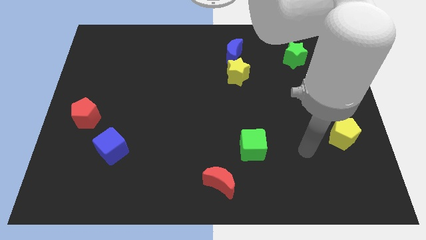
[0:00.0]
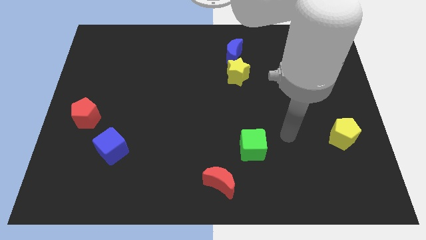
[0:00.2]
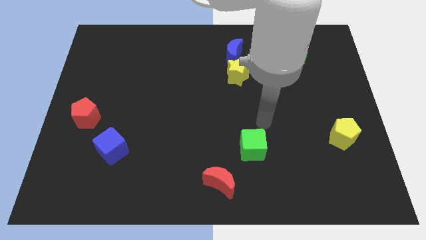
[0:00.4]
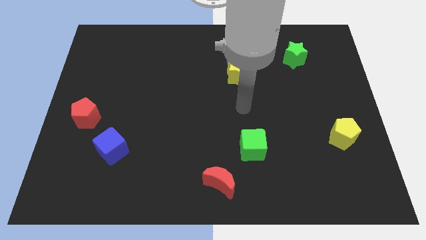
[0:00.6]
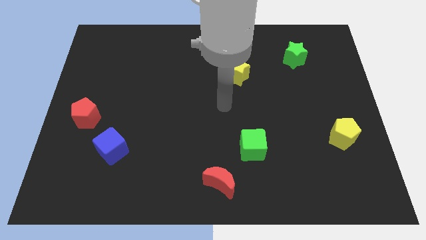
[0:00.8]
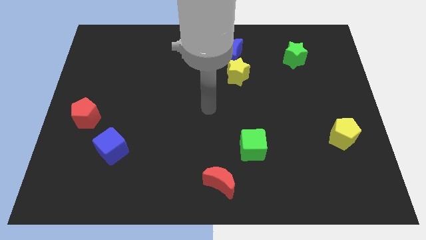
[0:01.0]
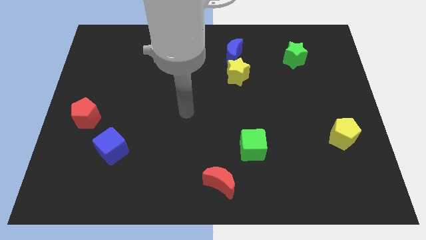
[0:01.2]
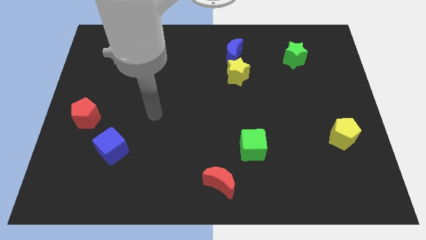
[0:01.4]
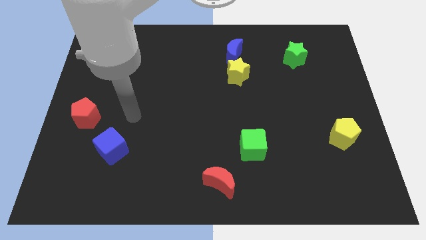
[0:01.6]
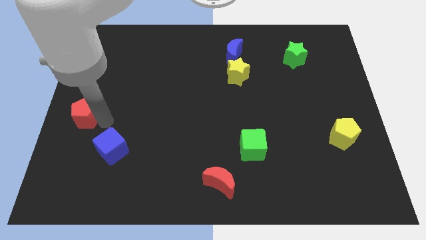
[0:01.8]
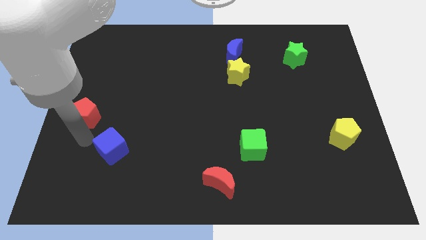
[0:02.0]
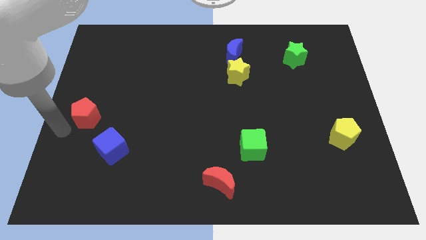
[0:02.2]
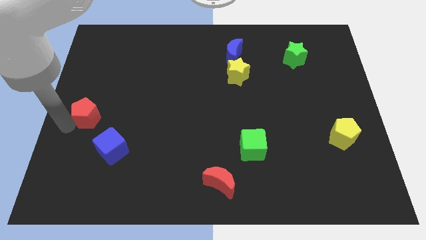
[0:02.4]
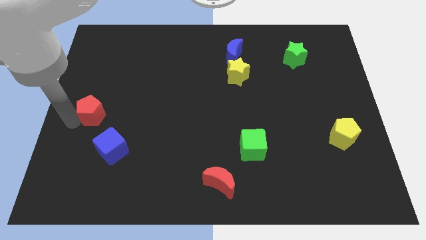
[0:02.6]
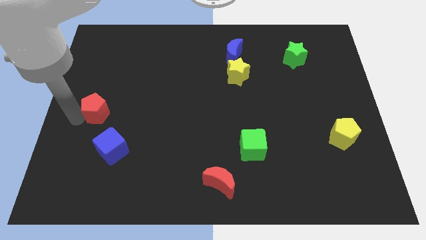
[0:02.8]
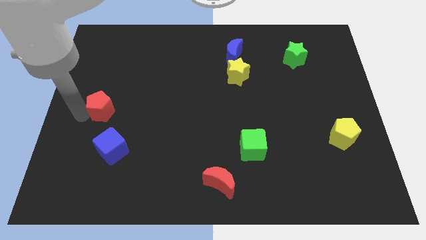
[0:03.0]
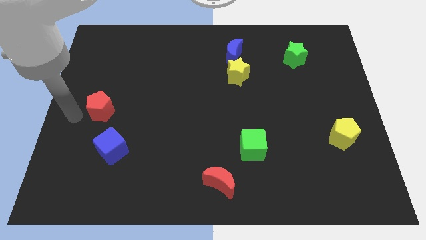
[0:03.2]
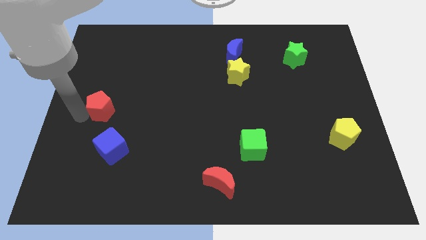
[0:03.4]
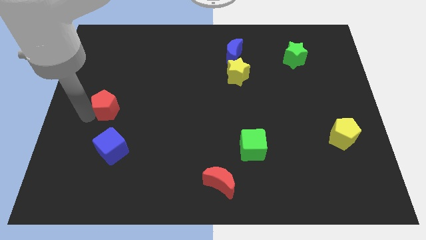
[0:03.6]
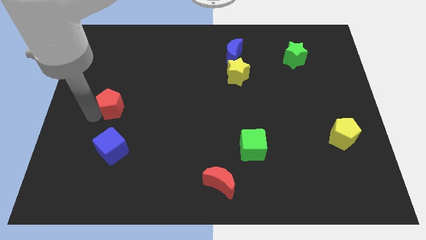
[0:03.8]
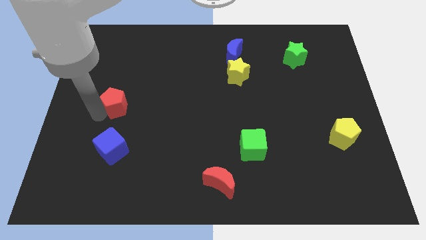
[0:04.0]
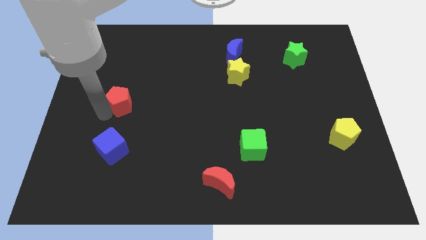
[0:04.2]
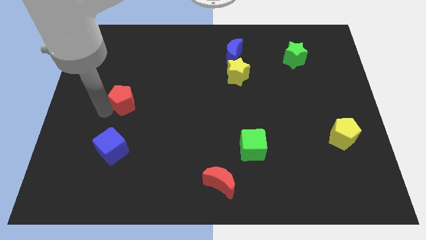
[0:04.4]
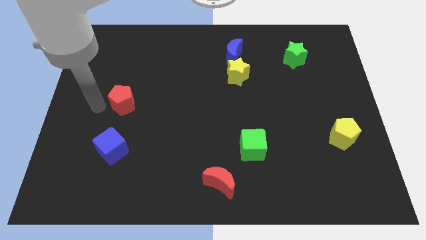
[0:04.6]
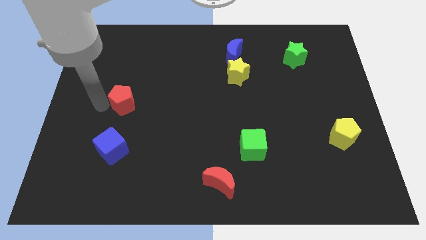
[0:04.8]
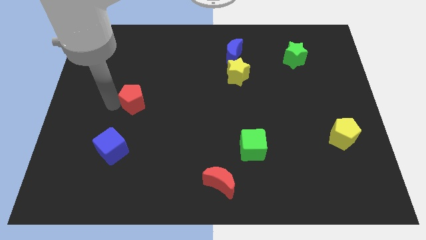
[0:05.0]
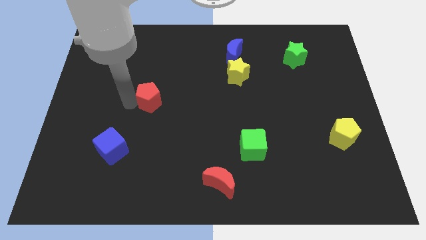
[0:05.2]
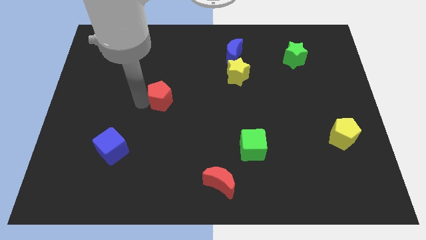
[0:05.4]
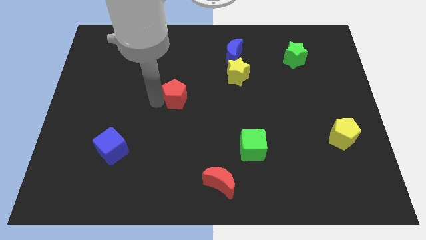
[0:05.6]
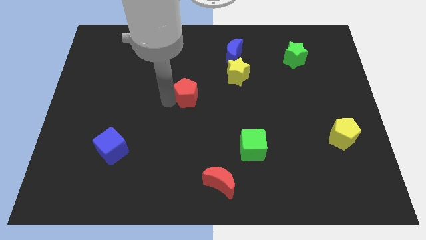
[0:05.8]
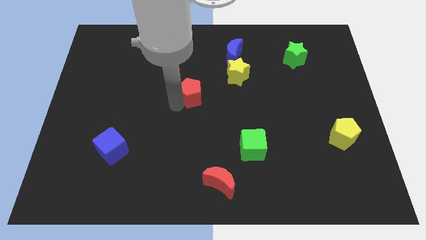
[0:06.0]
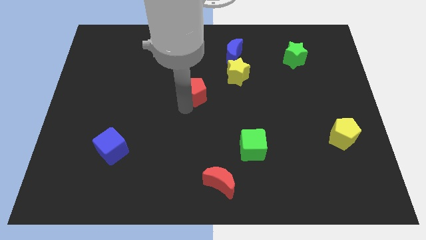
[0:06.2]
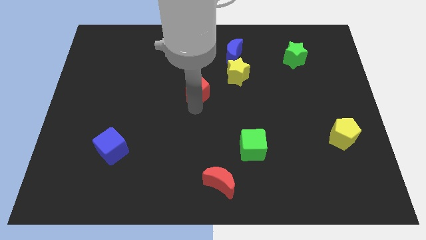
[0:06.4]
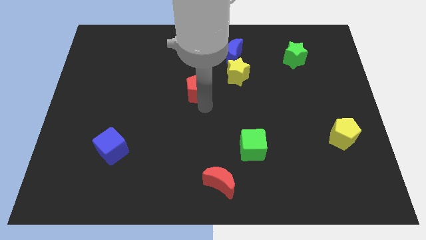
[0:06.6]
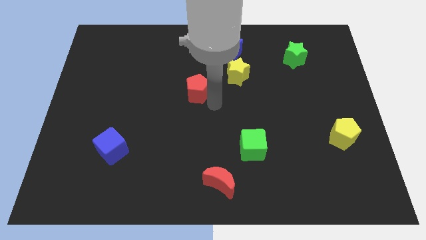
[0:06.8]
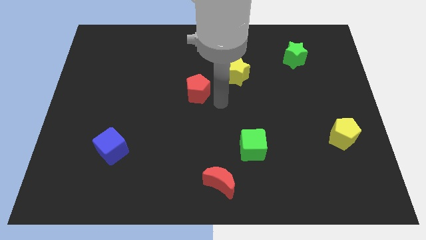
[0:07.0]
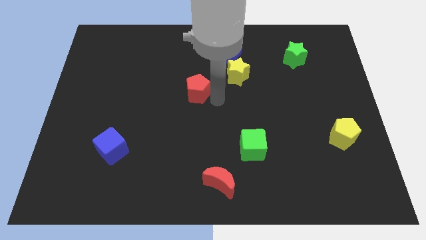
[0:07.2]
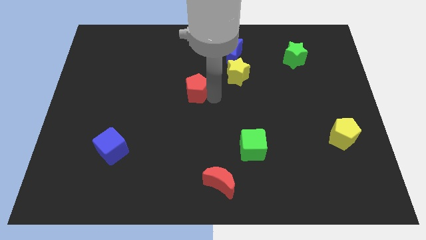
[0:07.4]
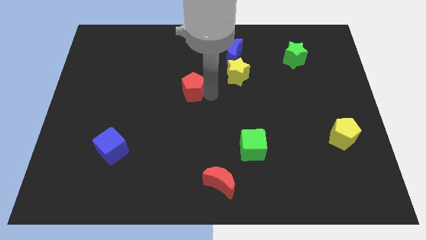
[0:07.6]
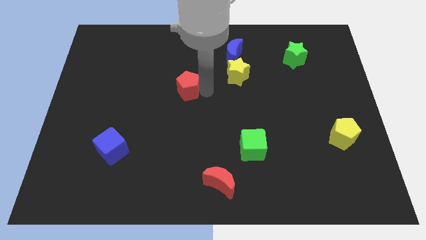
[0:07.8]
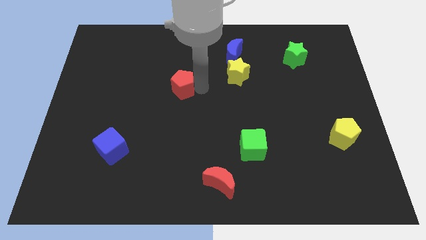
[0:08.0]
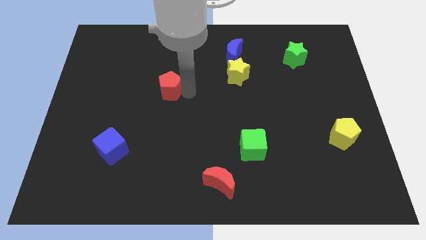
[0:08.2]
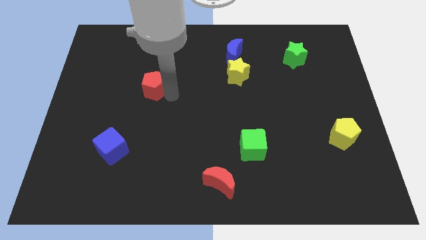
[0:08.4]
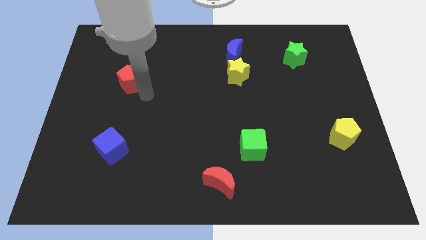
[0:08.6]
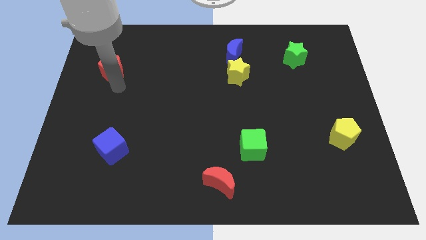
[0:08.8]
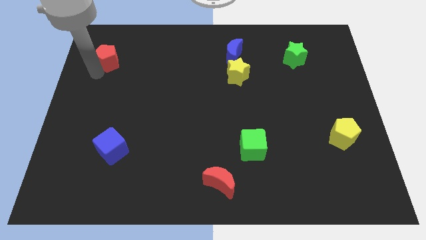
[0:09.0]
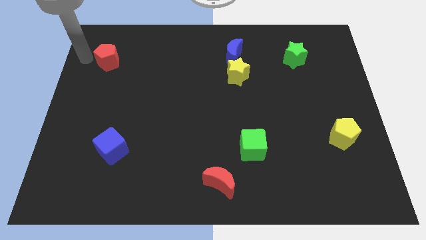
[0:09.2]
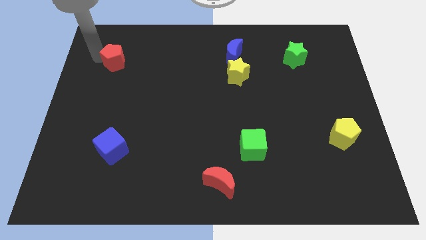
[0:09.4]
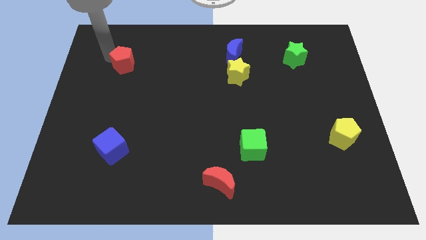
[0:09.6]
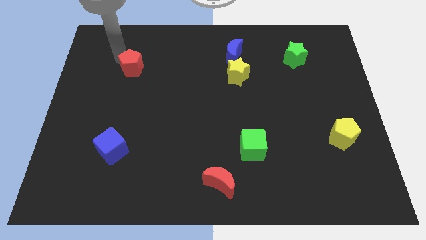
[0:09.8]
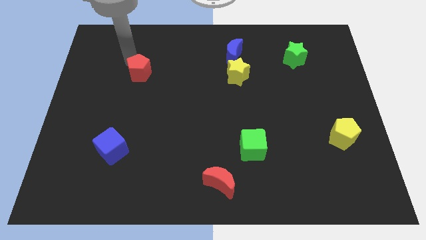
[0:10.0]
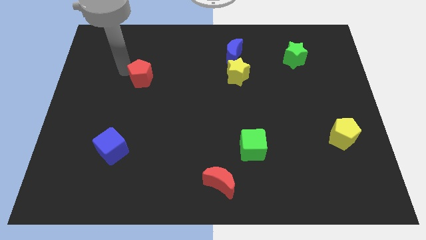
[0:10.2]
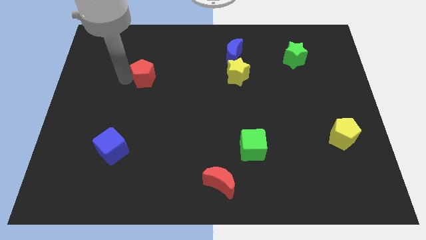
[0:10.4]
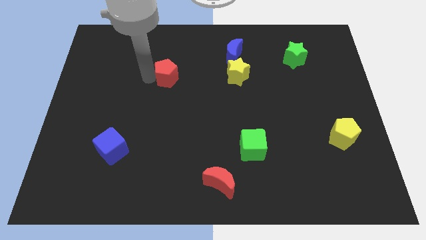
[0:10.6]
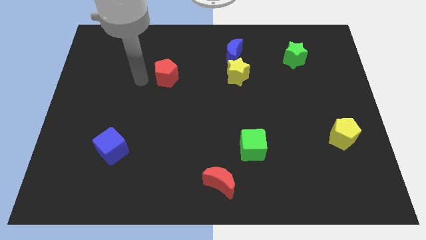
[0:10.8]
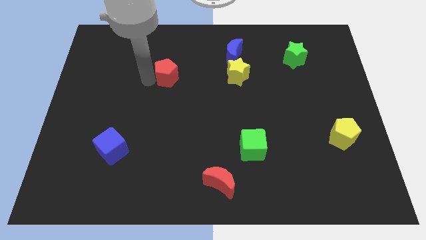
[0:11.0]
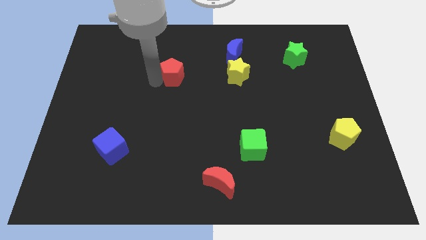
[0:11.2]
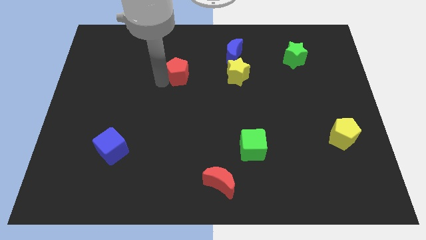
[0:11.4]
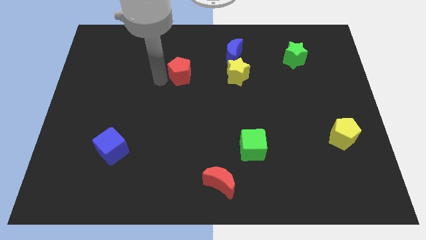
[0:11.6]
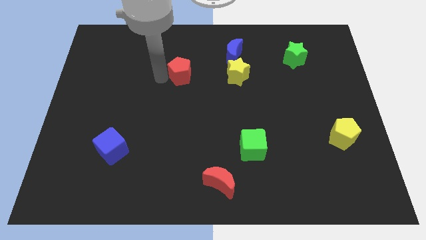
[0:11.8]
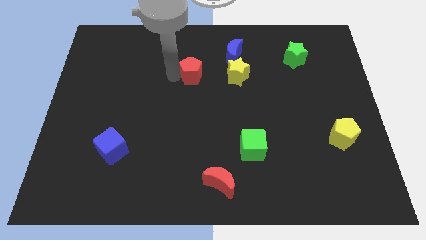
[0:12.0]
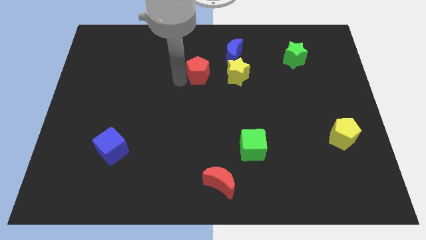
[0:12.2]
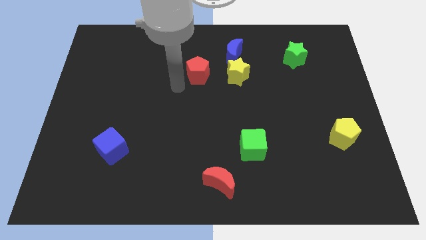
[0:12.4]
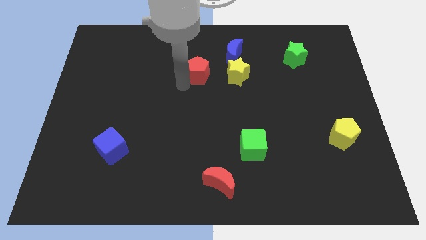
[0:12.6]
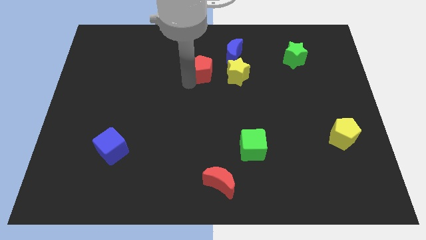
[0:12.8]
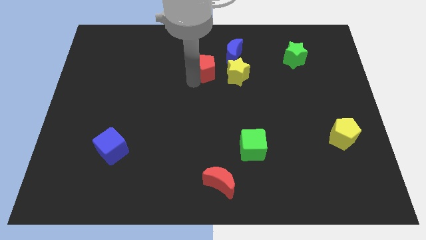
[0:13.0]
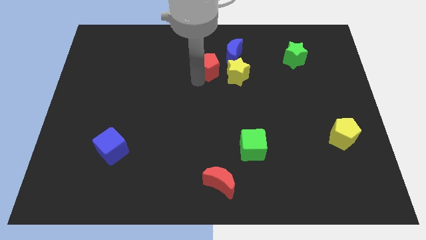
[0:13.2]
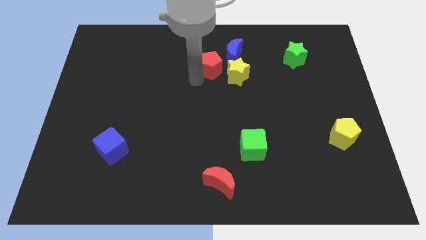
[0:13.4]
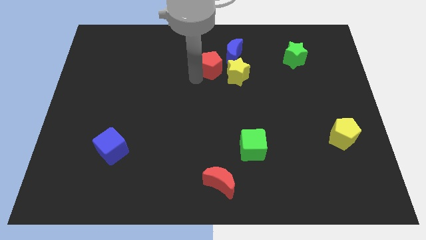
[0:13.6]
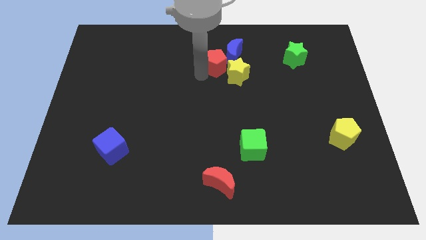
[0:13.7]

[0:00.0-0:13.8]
move the red pentagon next to the blue moon
